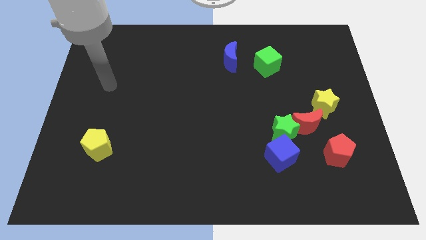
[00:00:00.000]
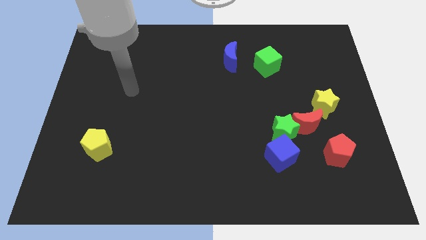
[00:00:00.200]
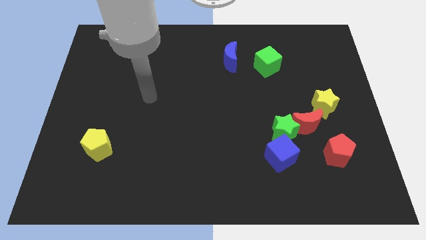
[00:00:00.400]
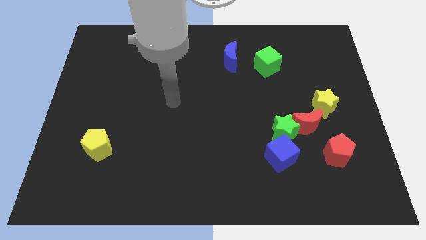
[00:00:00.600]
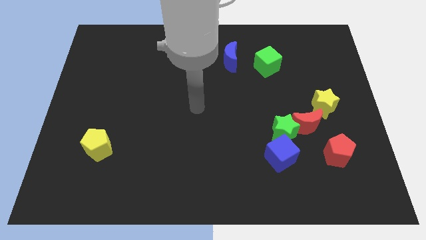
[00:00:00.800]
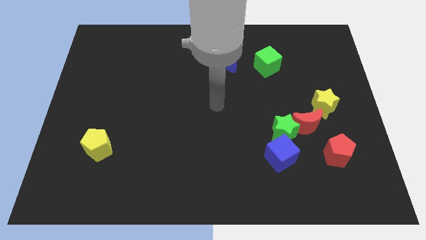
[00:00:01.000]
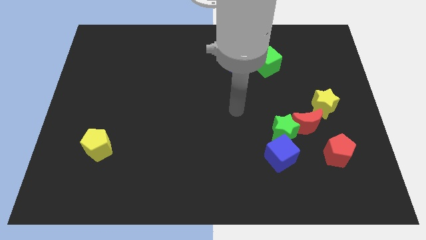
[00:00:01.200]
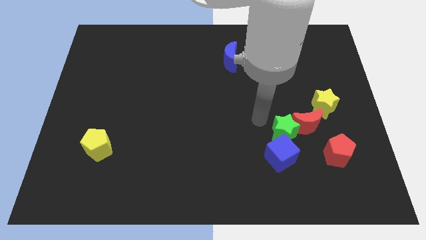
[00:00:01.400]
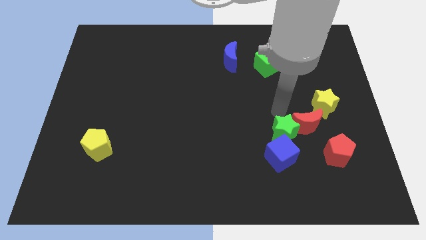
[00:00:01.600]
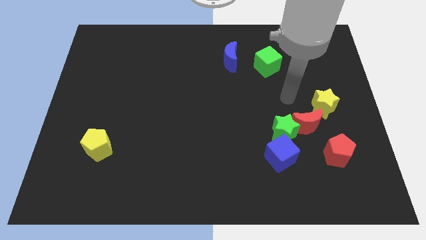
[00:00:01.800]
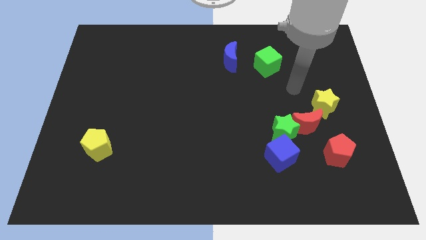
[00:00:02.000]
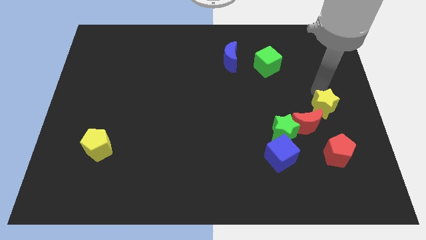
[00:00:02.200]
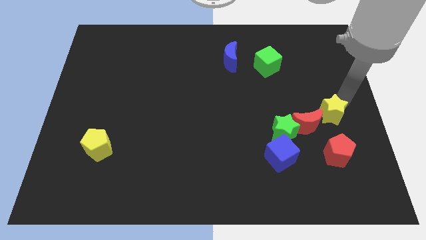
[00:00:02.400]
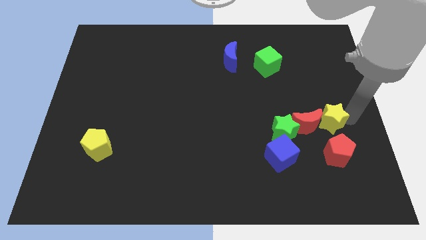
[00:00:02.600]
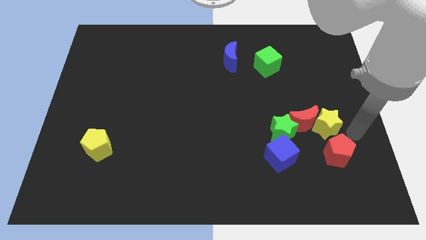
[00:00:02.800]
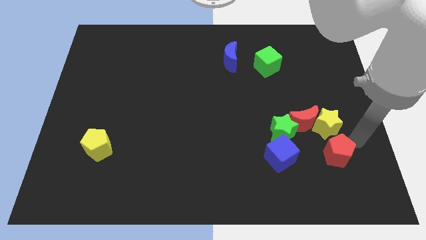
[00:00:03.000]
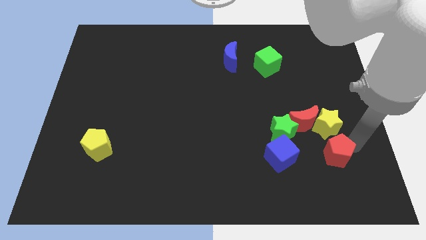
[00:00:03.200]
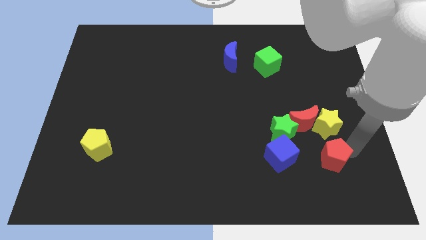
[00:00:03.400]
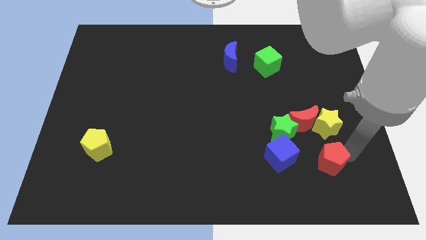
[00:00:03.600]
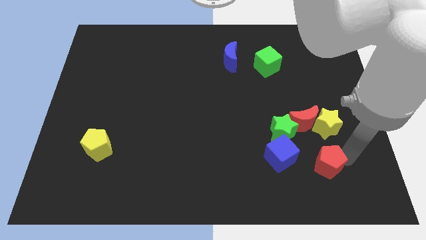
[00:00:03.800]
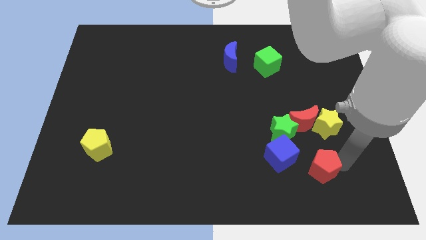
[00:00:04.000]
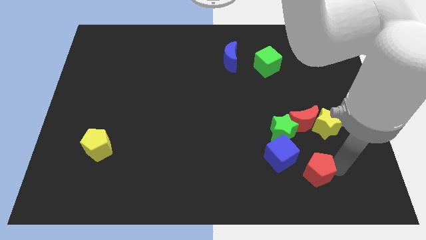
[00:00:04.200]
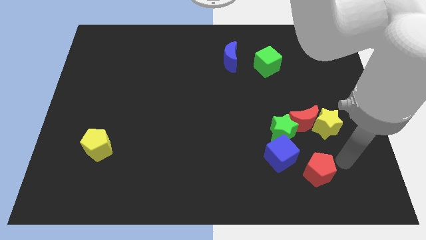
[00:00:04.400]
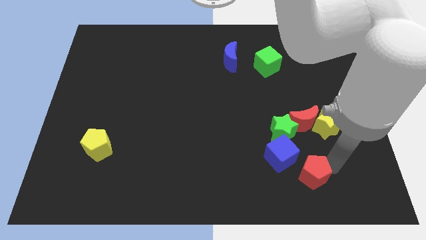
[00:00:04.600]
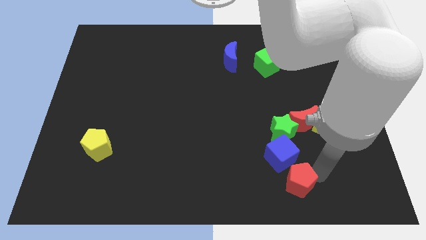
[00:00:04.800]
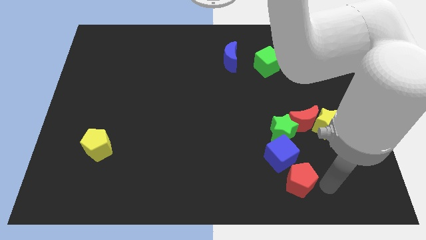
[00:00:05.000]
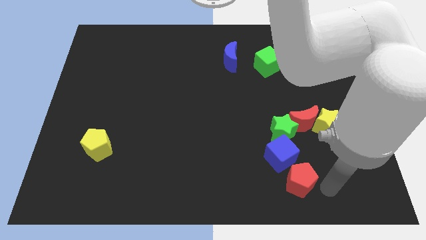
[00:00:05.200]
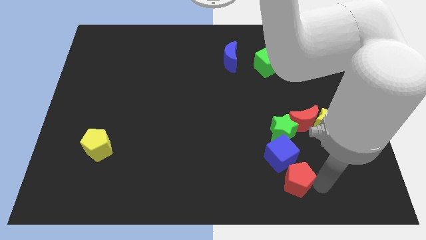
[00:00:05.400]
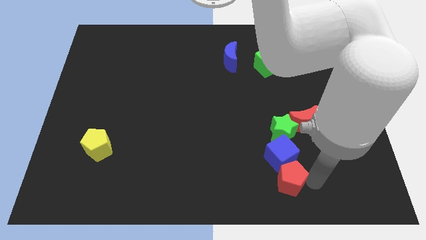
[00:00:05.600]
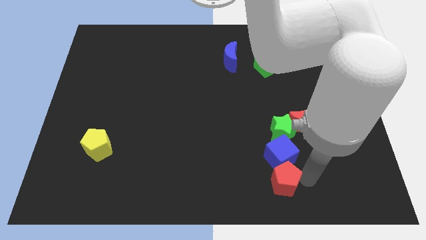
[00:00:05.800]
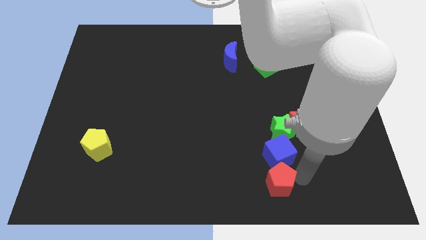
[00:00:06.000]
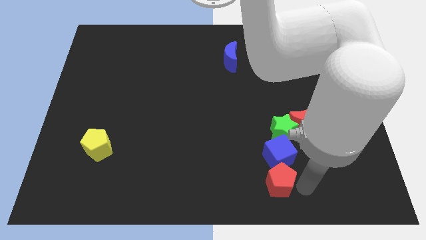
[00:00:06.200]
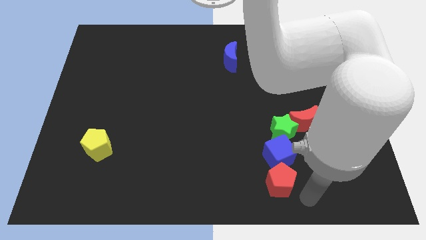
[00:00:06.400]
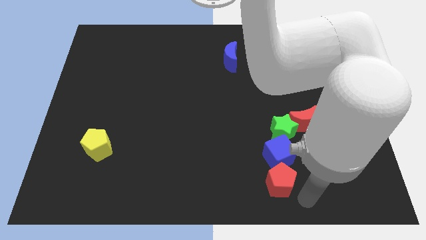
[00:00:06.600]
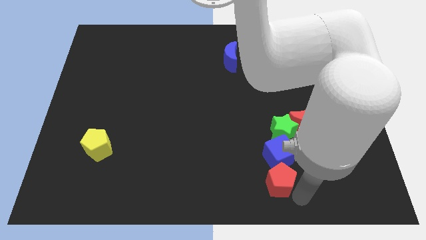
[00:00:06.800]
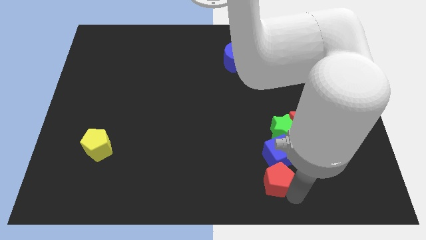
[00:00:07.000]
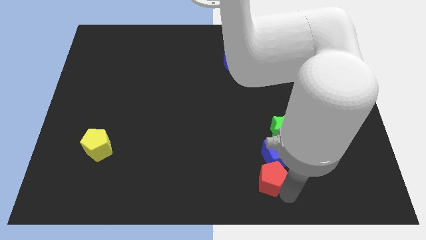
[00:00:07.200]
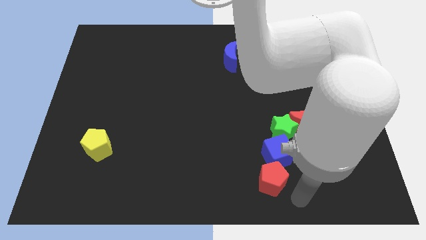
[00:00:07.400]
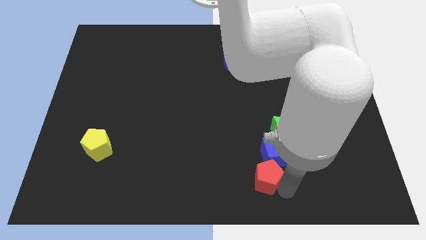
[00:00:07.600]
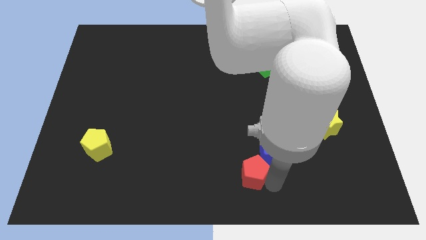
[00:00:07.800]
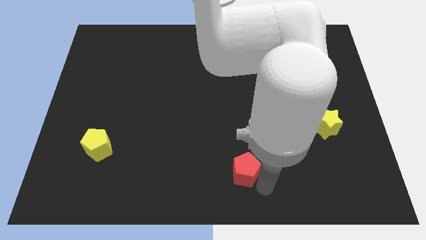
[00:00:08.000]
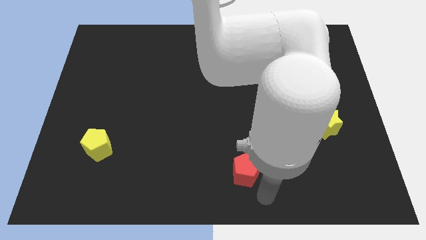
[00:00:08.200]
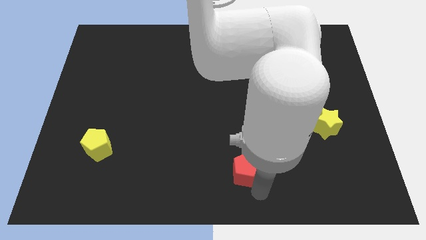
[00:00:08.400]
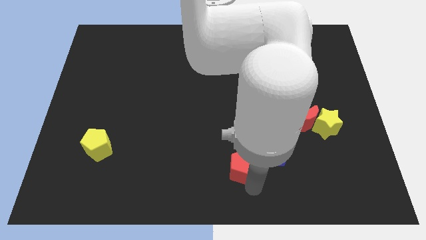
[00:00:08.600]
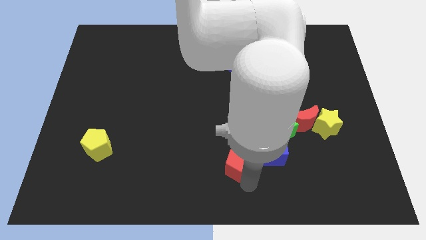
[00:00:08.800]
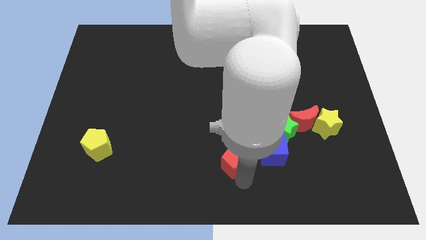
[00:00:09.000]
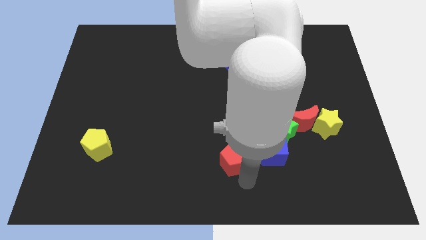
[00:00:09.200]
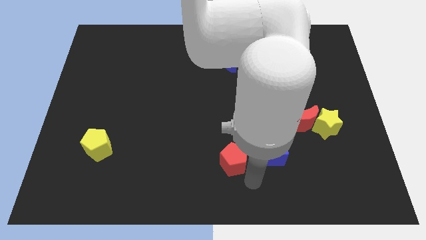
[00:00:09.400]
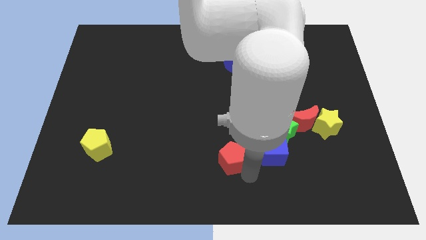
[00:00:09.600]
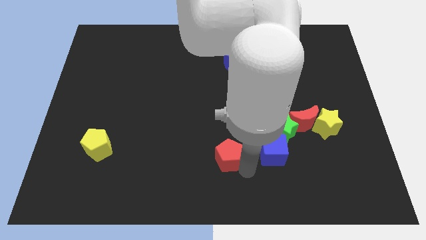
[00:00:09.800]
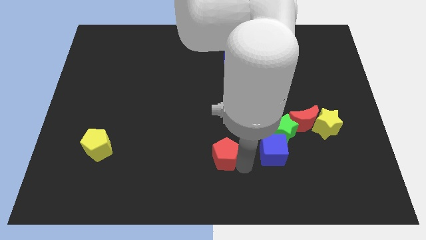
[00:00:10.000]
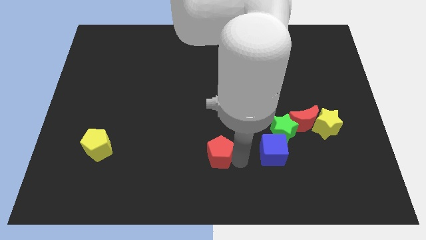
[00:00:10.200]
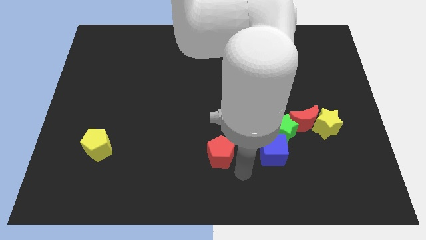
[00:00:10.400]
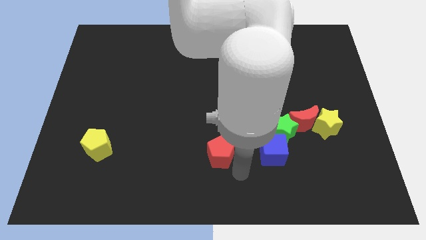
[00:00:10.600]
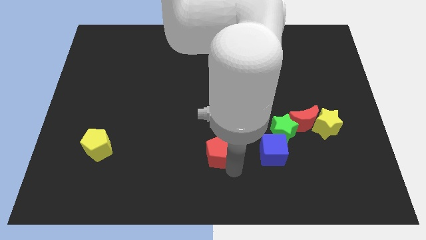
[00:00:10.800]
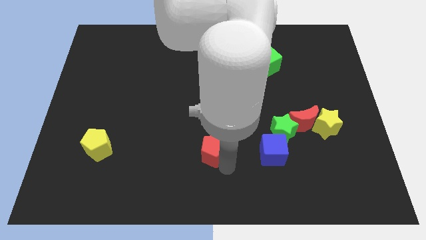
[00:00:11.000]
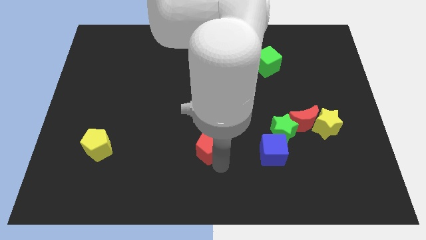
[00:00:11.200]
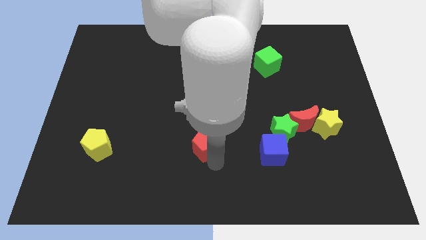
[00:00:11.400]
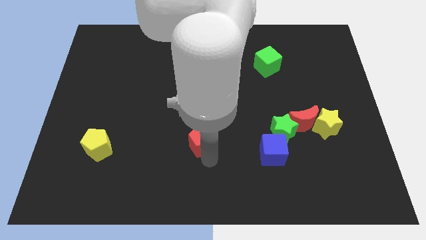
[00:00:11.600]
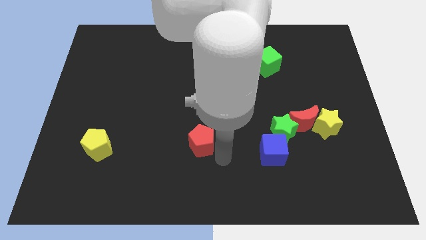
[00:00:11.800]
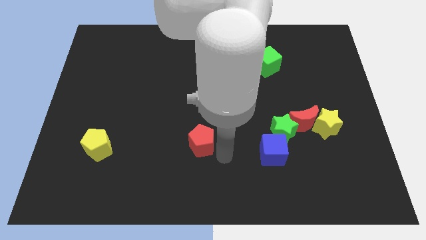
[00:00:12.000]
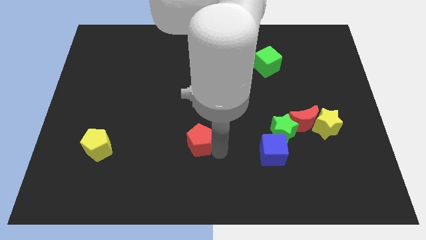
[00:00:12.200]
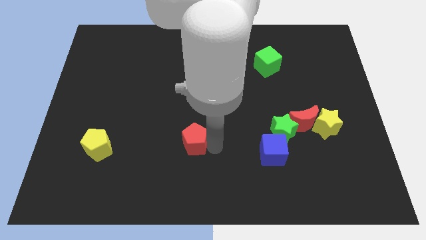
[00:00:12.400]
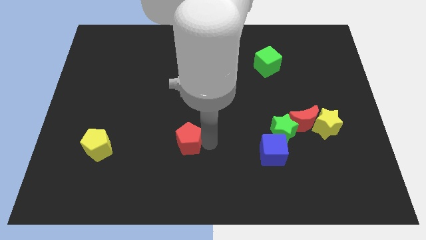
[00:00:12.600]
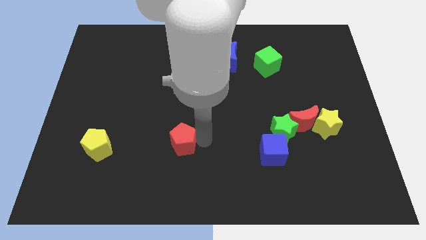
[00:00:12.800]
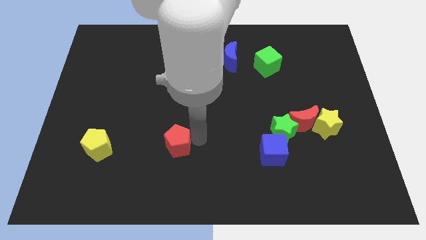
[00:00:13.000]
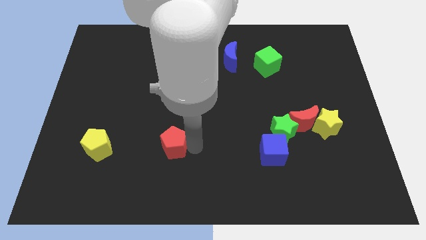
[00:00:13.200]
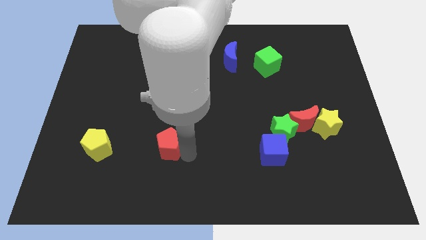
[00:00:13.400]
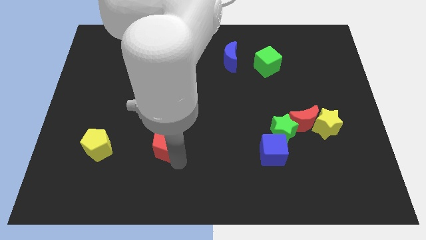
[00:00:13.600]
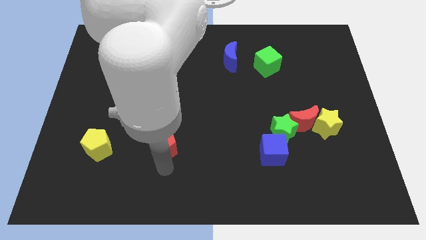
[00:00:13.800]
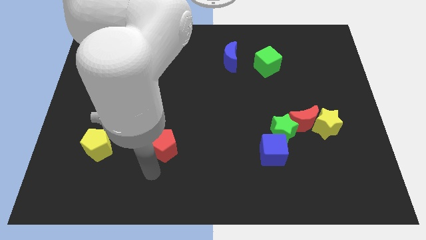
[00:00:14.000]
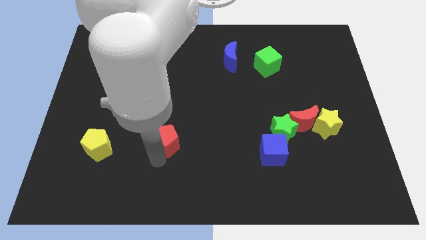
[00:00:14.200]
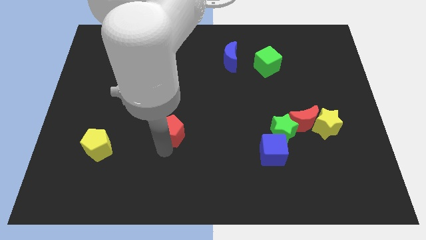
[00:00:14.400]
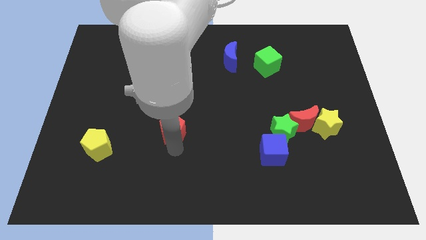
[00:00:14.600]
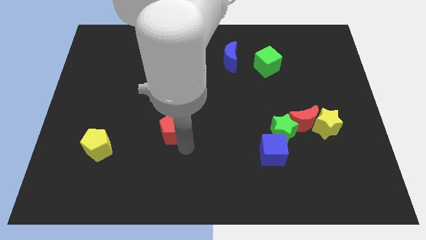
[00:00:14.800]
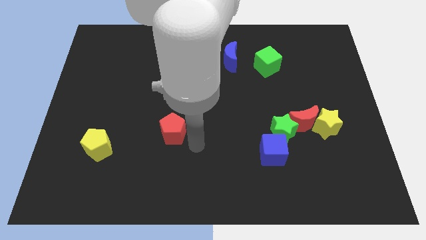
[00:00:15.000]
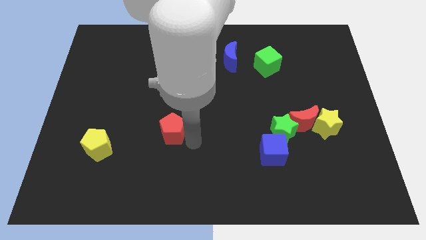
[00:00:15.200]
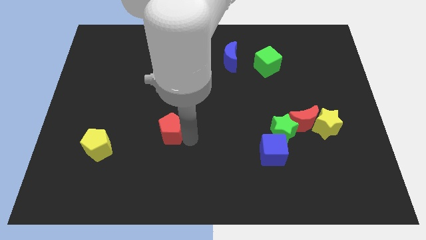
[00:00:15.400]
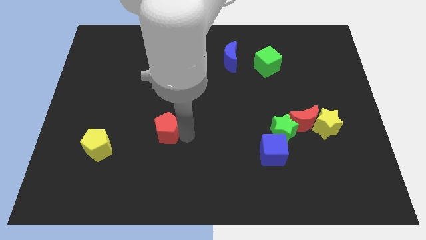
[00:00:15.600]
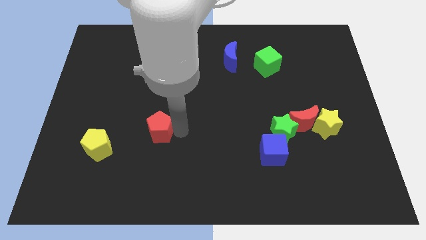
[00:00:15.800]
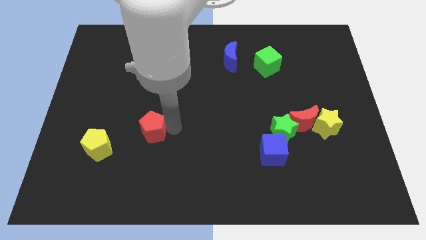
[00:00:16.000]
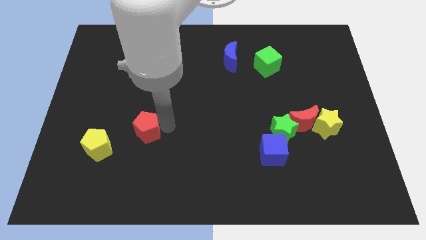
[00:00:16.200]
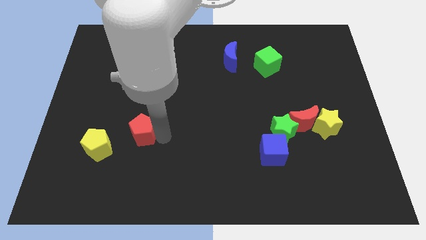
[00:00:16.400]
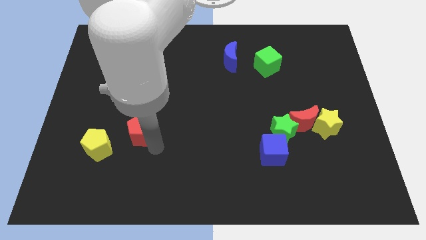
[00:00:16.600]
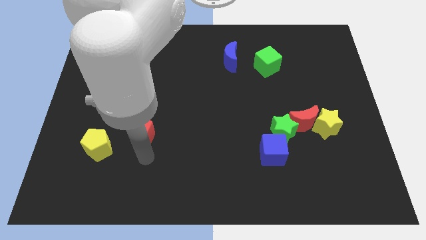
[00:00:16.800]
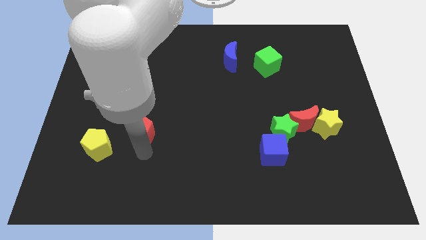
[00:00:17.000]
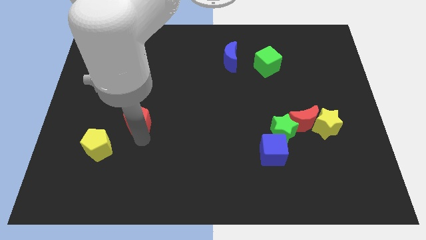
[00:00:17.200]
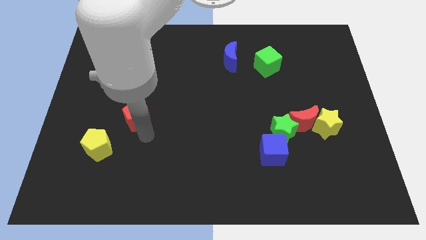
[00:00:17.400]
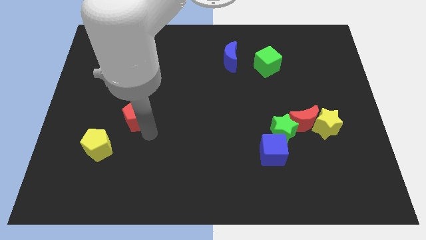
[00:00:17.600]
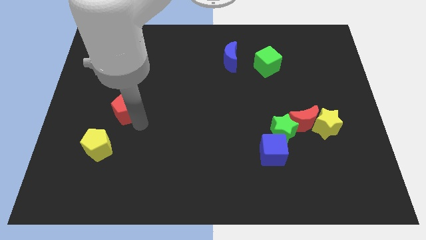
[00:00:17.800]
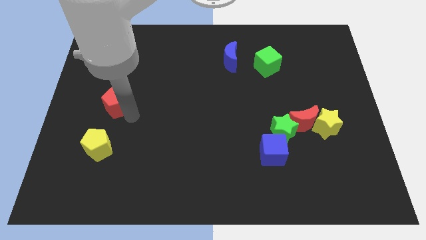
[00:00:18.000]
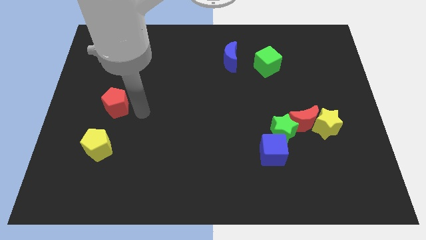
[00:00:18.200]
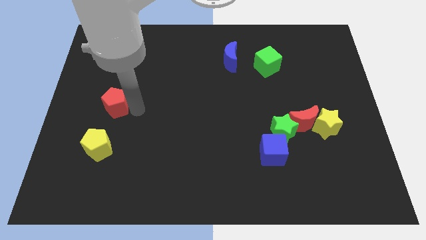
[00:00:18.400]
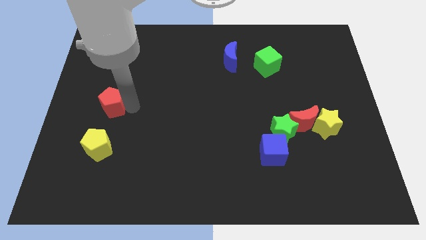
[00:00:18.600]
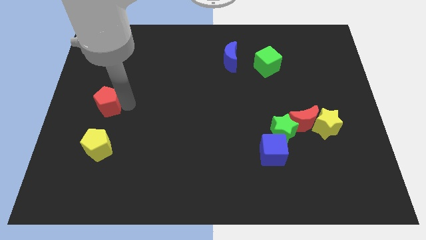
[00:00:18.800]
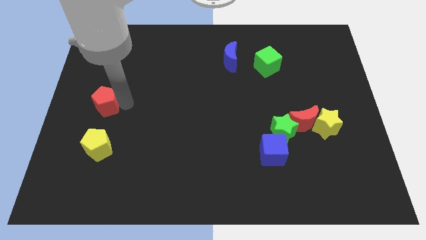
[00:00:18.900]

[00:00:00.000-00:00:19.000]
push the red pentagon to the left side
